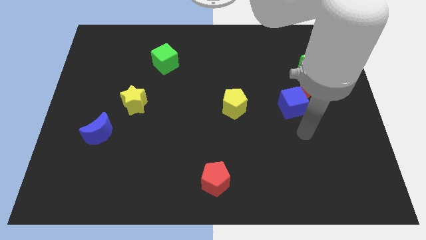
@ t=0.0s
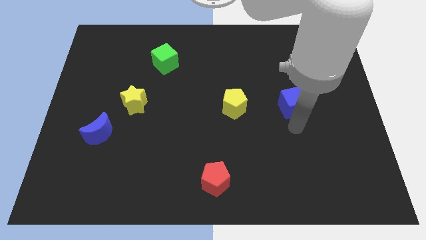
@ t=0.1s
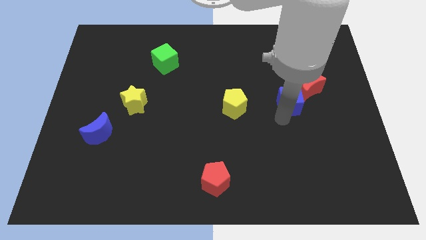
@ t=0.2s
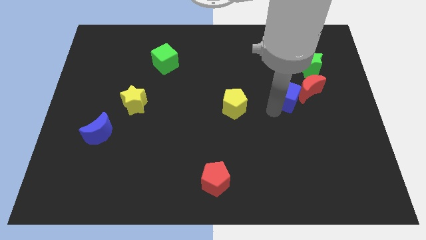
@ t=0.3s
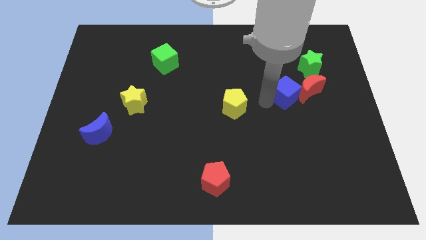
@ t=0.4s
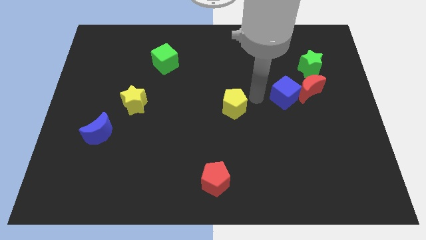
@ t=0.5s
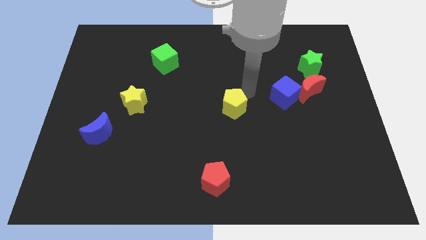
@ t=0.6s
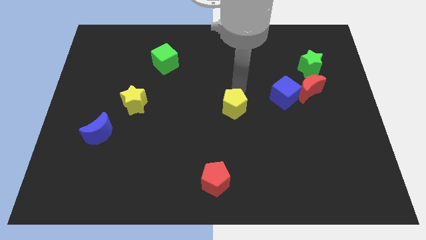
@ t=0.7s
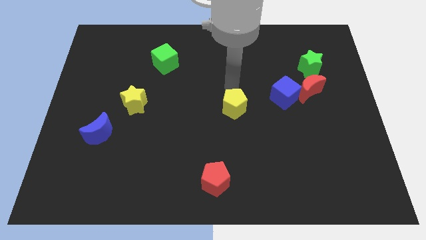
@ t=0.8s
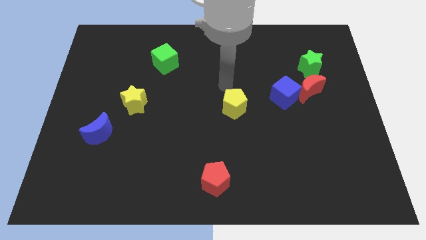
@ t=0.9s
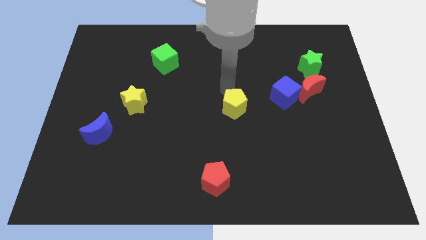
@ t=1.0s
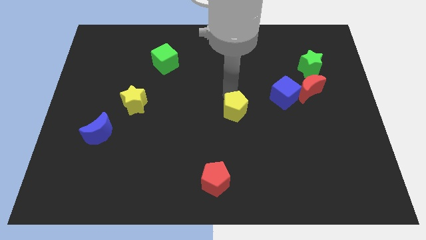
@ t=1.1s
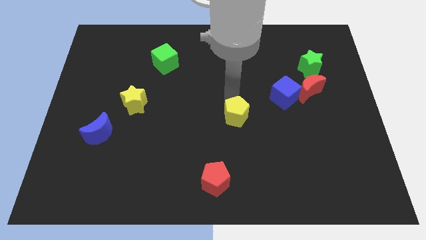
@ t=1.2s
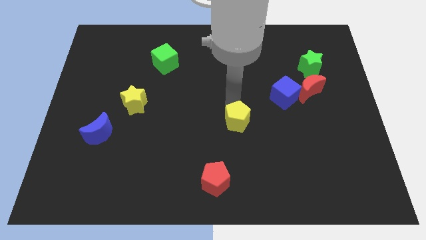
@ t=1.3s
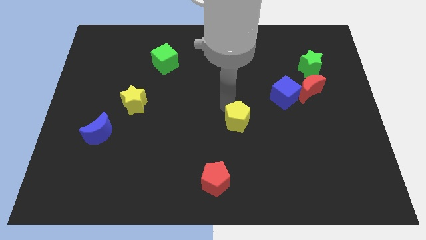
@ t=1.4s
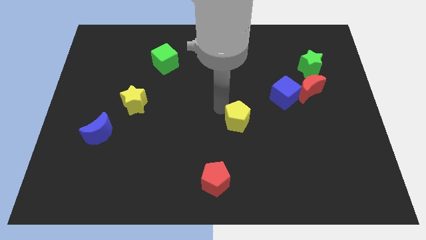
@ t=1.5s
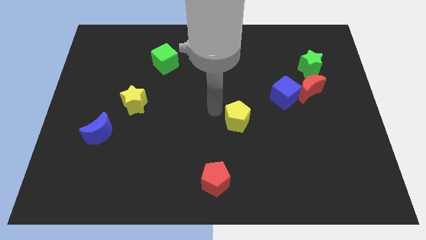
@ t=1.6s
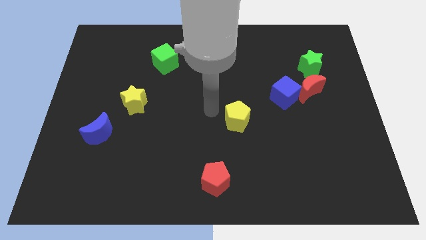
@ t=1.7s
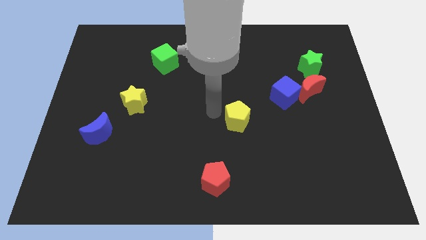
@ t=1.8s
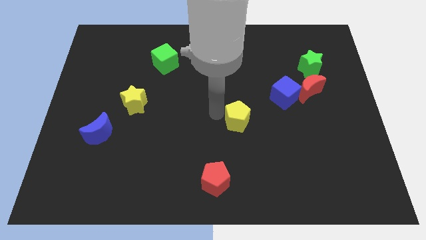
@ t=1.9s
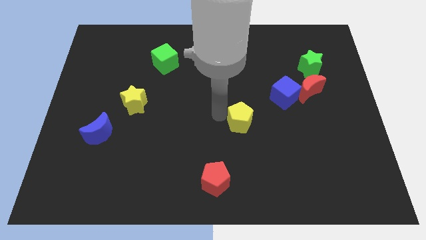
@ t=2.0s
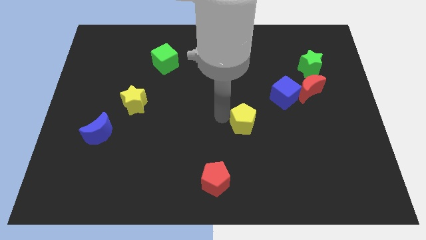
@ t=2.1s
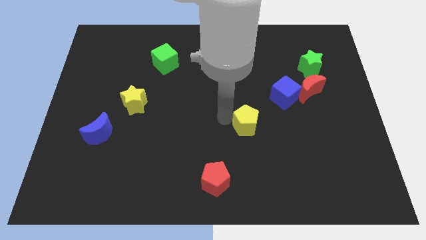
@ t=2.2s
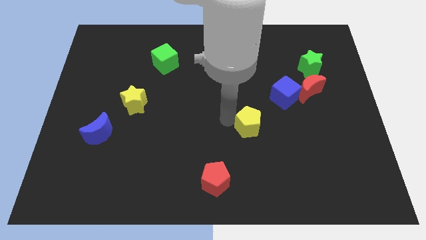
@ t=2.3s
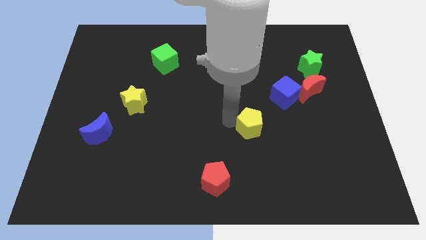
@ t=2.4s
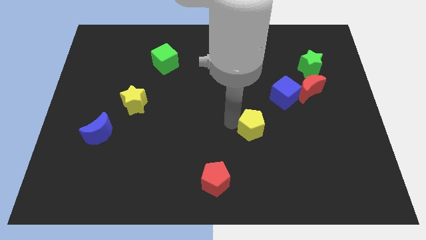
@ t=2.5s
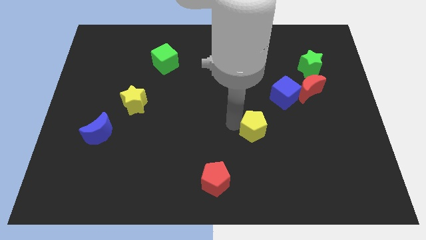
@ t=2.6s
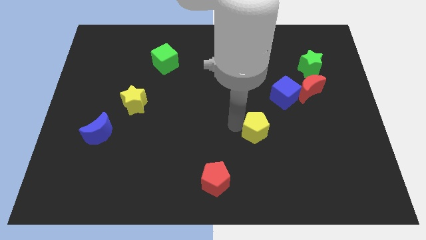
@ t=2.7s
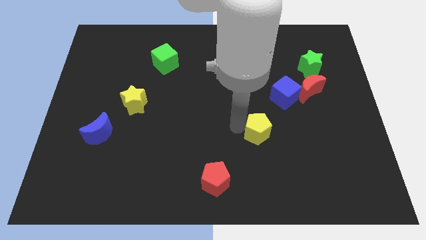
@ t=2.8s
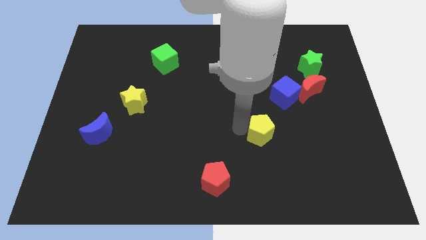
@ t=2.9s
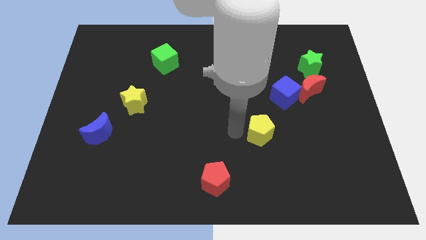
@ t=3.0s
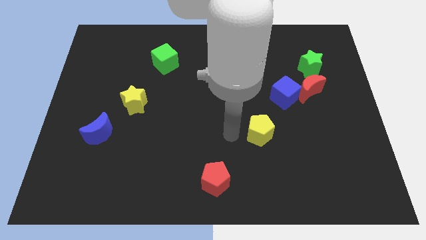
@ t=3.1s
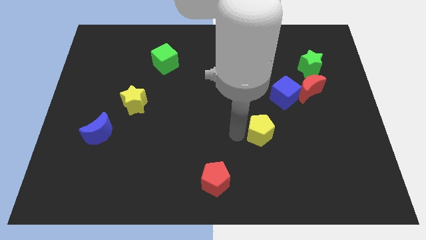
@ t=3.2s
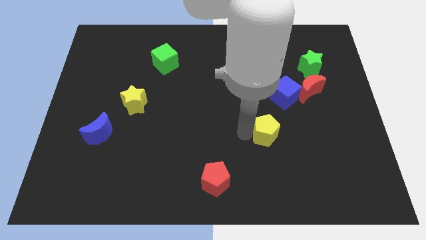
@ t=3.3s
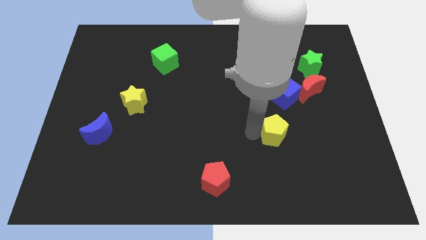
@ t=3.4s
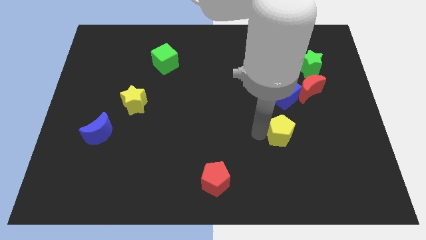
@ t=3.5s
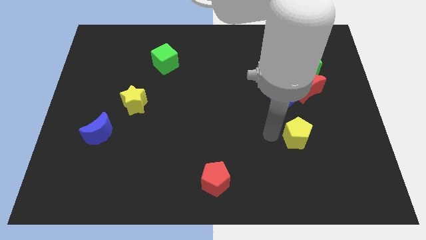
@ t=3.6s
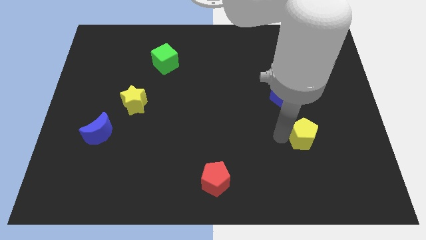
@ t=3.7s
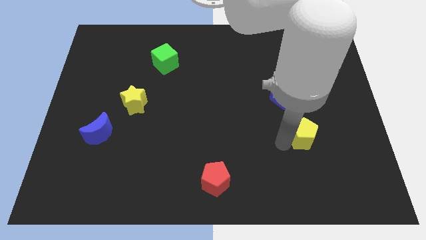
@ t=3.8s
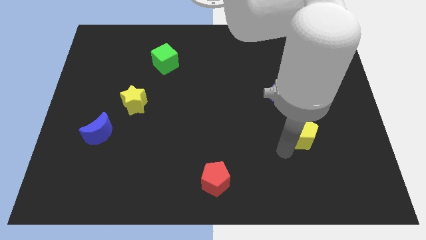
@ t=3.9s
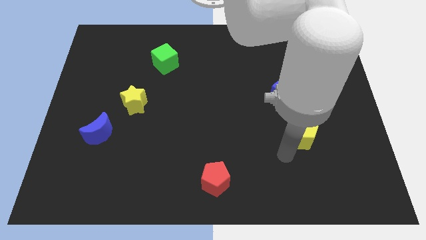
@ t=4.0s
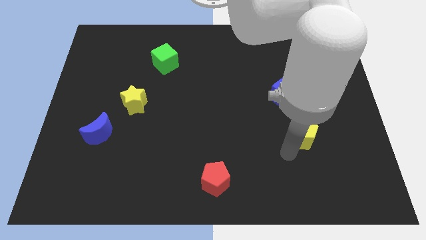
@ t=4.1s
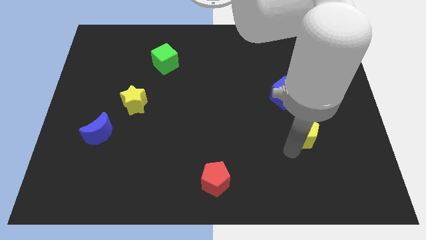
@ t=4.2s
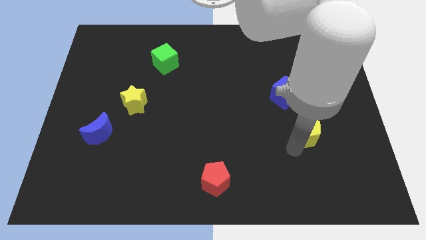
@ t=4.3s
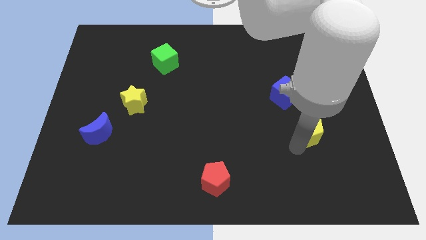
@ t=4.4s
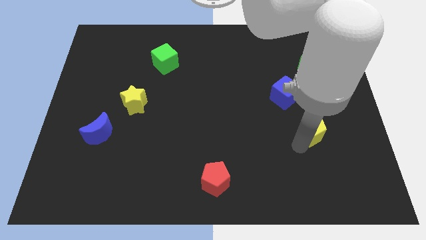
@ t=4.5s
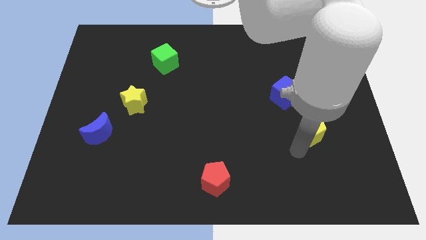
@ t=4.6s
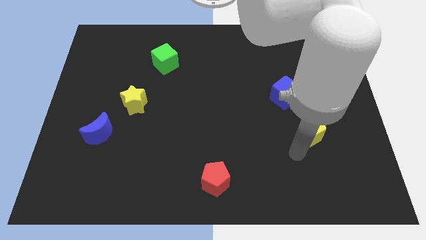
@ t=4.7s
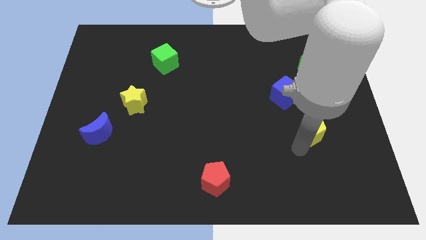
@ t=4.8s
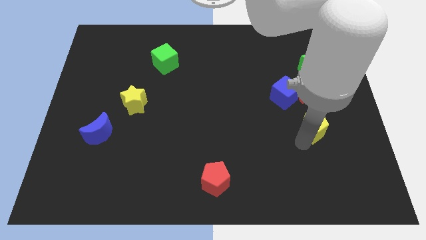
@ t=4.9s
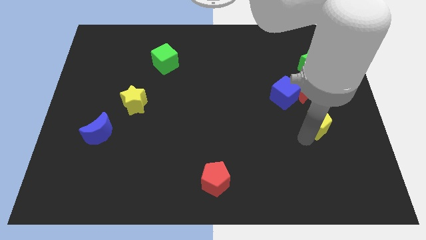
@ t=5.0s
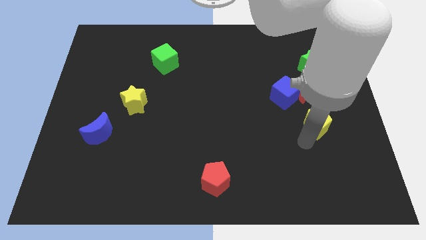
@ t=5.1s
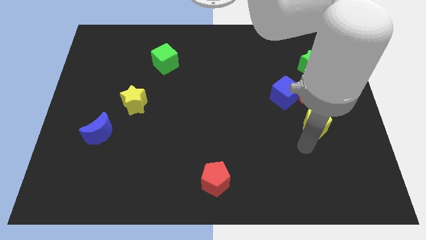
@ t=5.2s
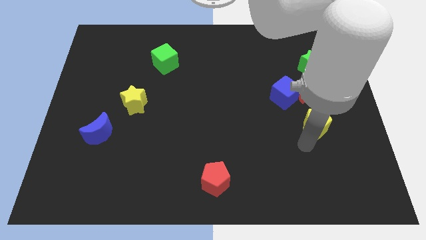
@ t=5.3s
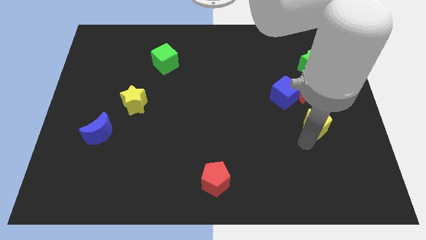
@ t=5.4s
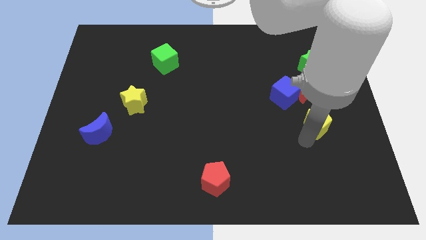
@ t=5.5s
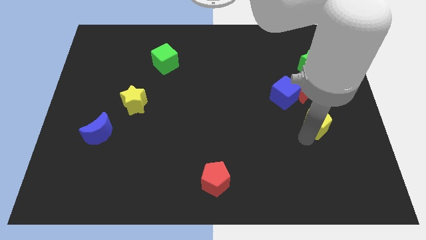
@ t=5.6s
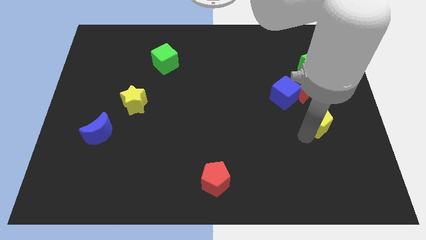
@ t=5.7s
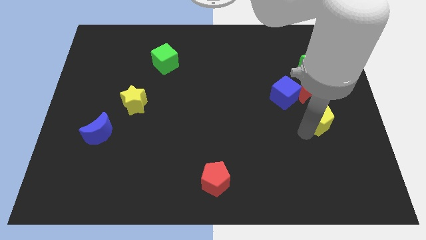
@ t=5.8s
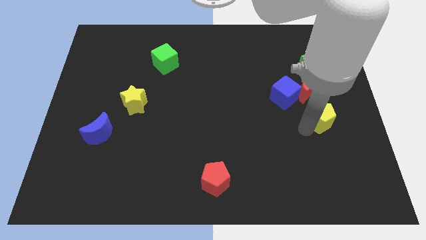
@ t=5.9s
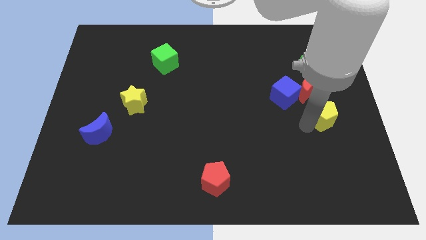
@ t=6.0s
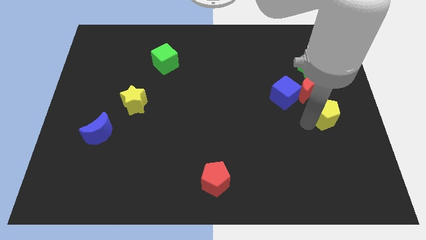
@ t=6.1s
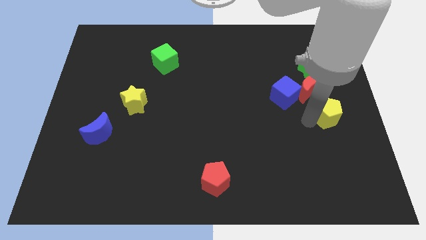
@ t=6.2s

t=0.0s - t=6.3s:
slide the yellow pentagon to the center right
